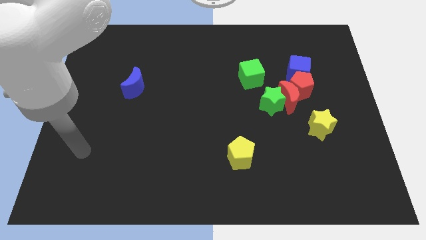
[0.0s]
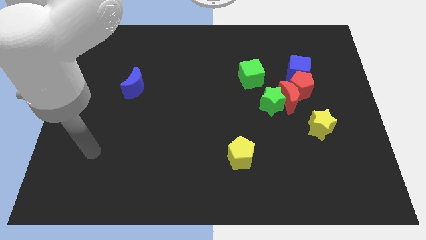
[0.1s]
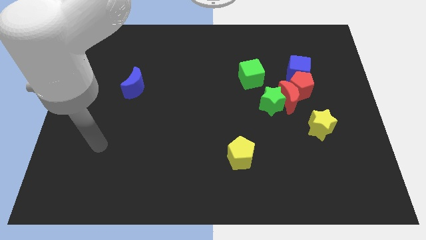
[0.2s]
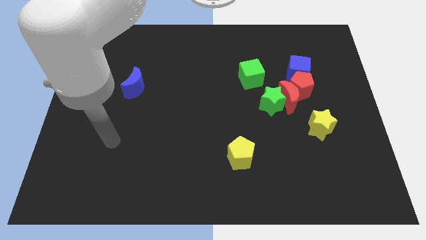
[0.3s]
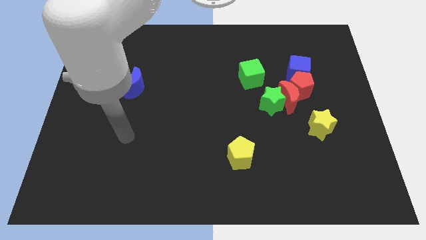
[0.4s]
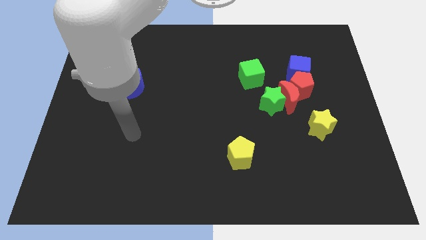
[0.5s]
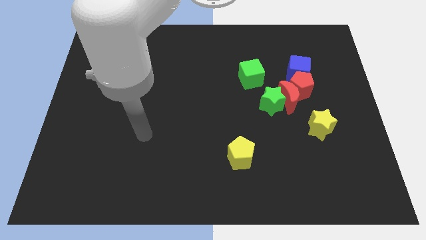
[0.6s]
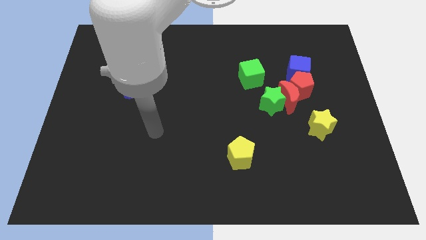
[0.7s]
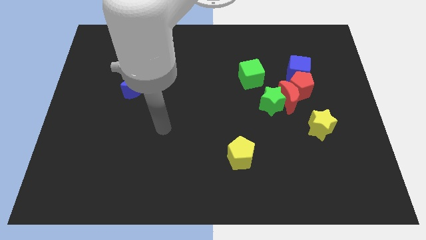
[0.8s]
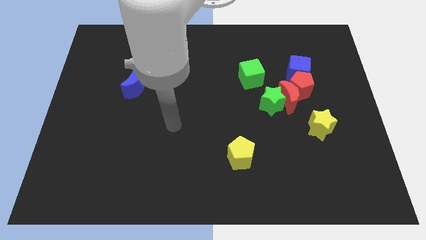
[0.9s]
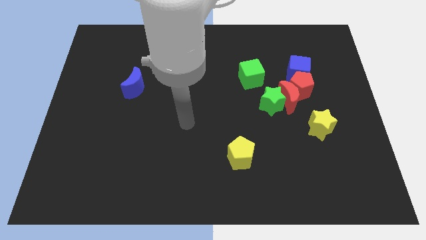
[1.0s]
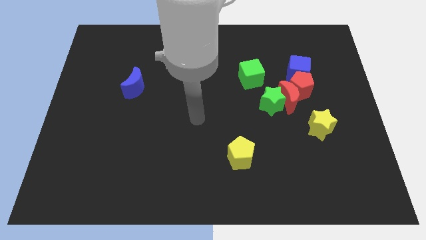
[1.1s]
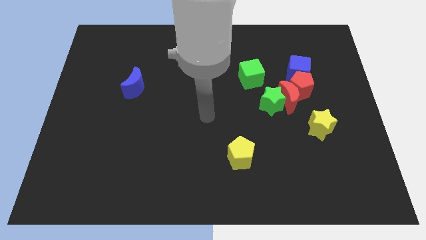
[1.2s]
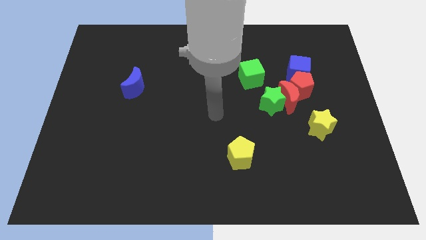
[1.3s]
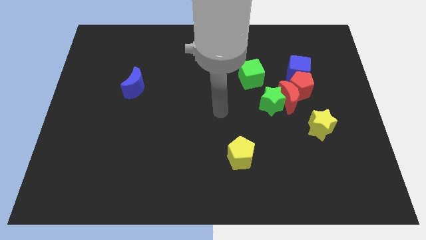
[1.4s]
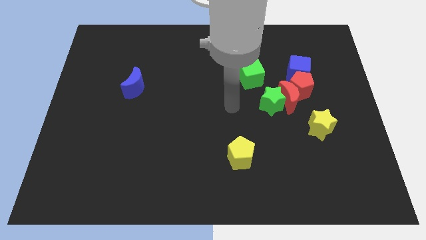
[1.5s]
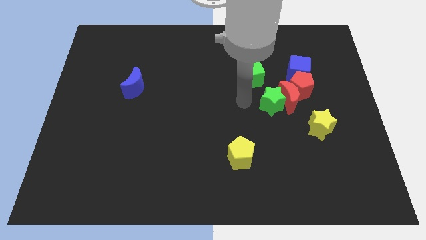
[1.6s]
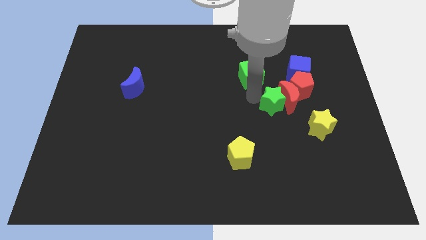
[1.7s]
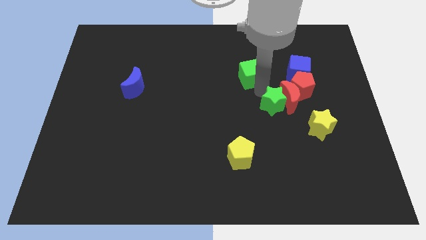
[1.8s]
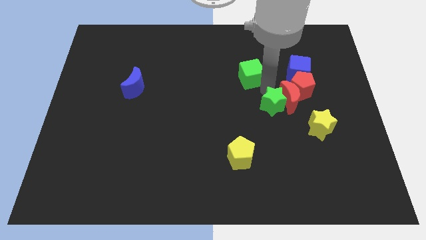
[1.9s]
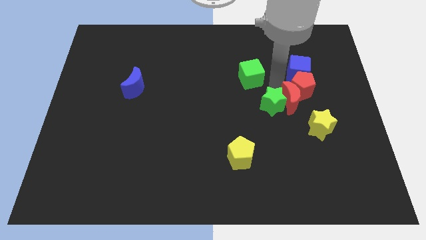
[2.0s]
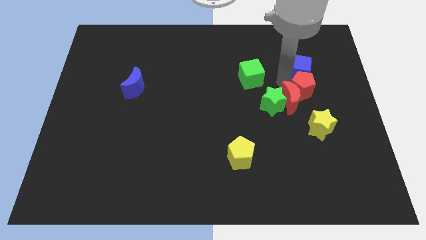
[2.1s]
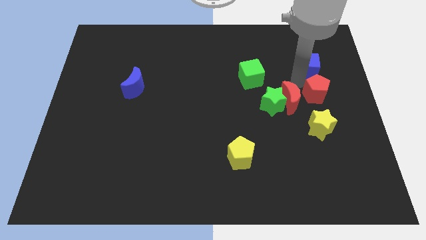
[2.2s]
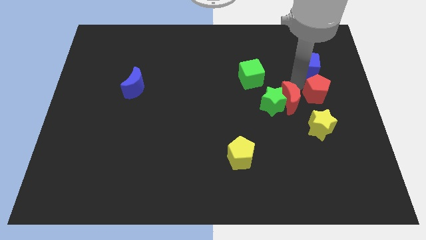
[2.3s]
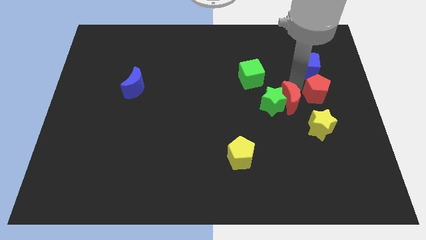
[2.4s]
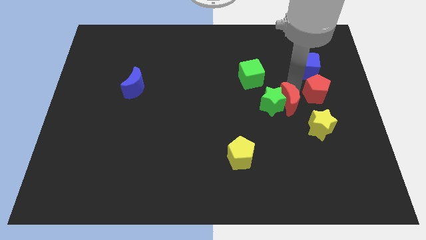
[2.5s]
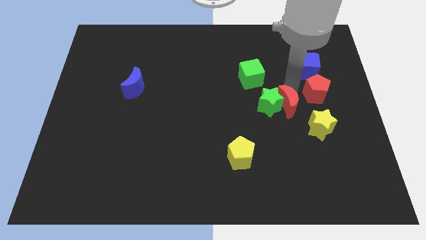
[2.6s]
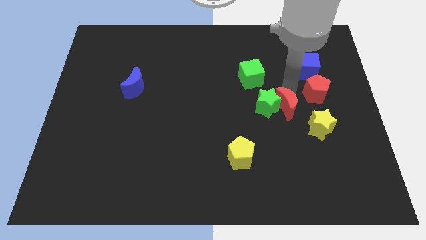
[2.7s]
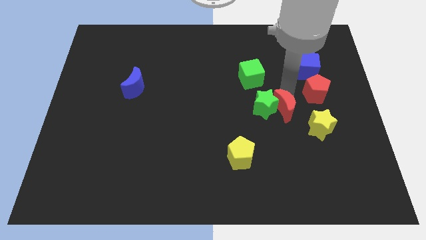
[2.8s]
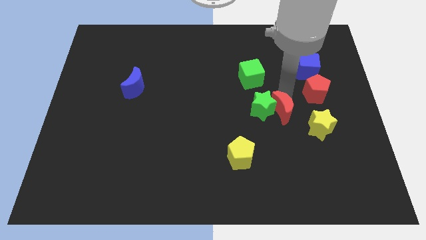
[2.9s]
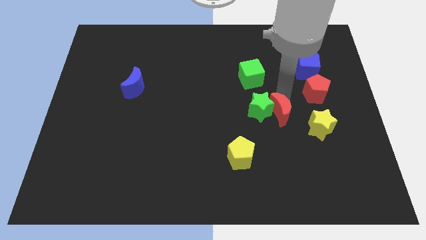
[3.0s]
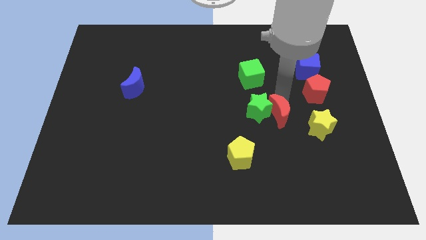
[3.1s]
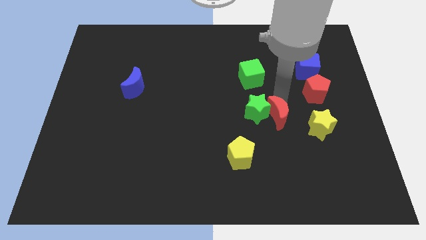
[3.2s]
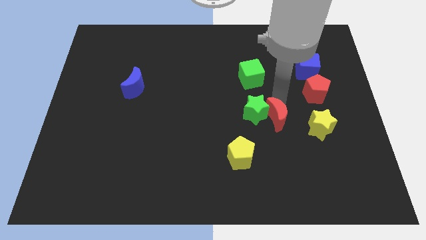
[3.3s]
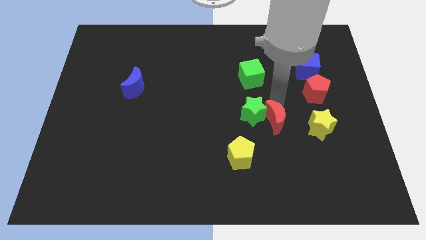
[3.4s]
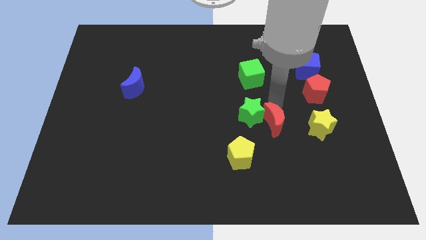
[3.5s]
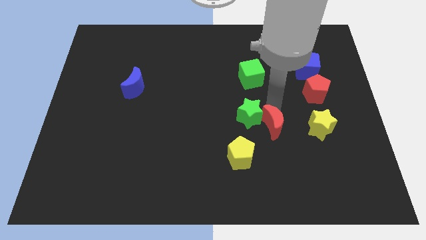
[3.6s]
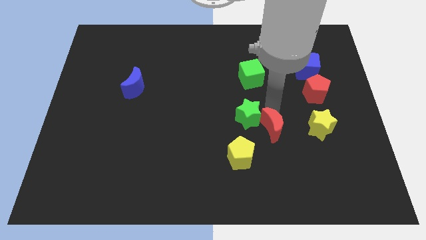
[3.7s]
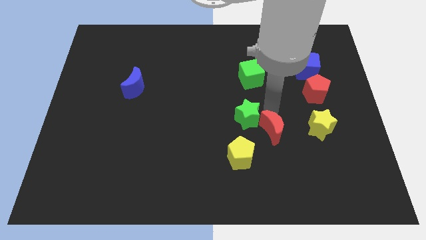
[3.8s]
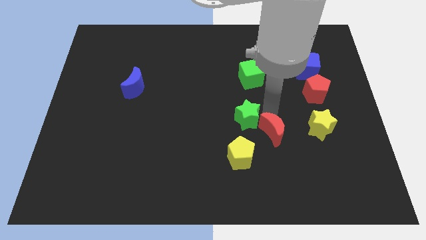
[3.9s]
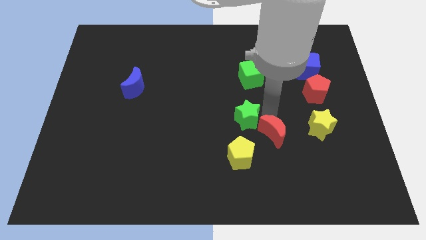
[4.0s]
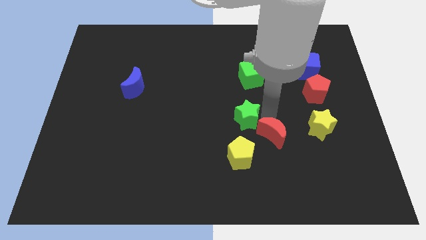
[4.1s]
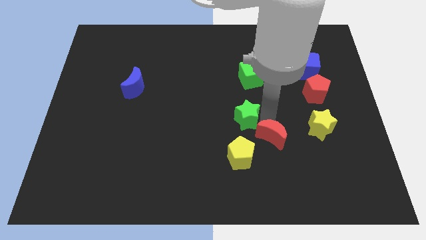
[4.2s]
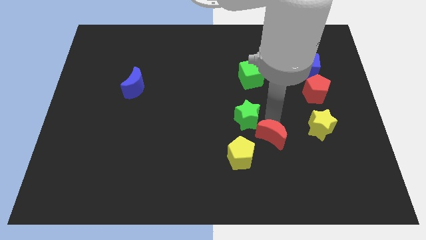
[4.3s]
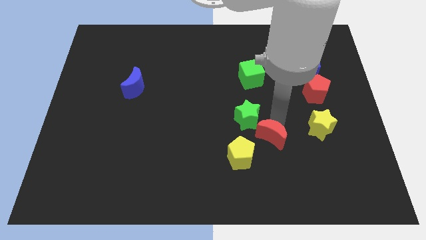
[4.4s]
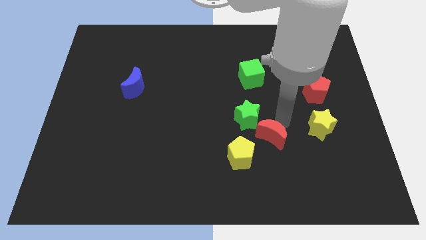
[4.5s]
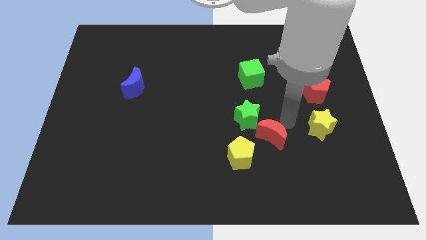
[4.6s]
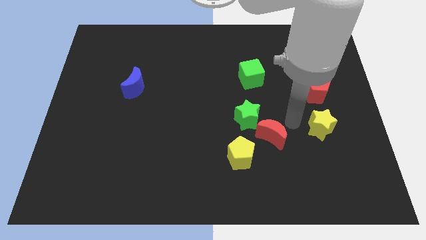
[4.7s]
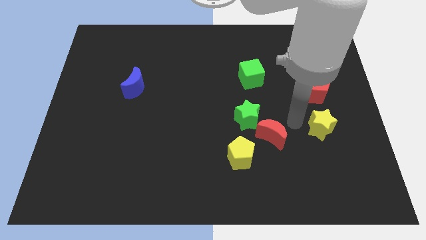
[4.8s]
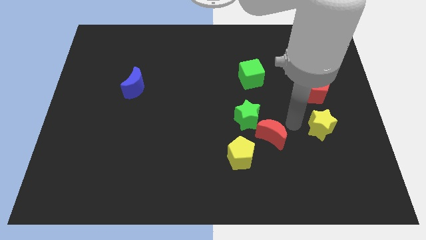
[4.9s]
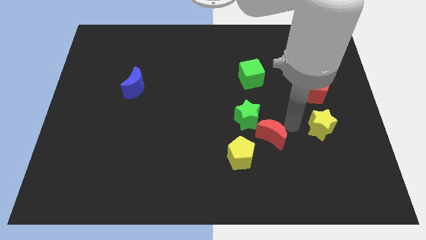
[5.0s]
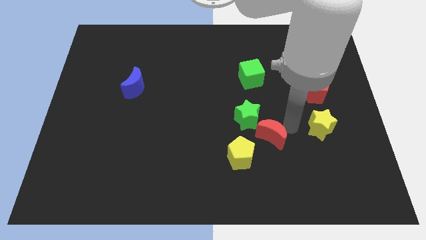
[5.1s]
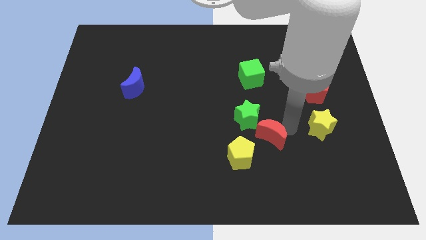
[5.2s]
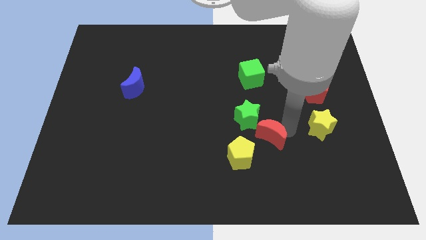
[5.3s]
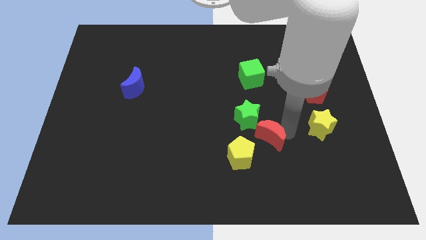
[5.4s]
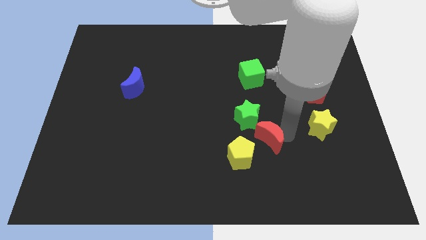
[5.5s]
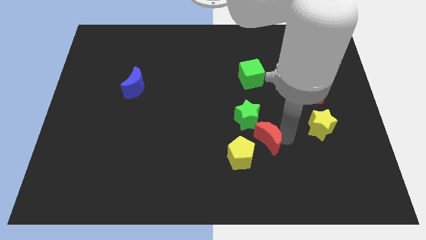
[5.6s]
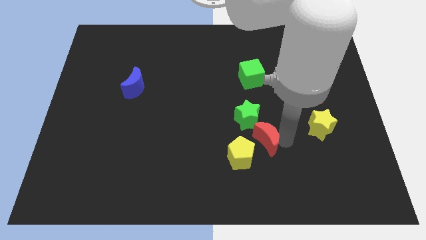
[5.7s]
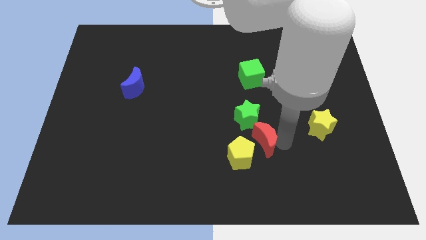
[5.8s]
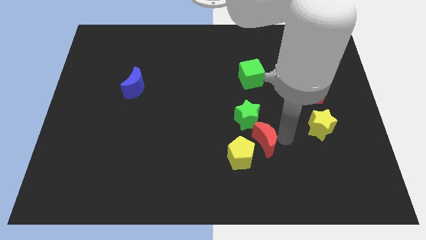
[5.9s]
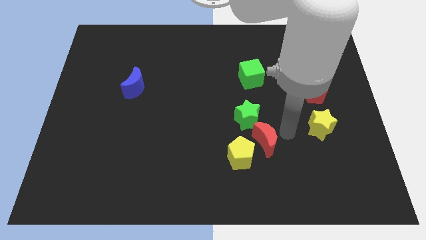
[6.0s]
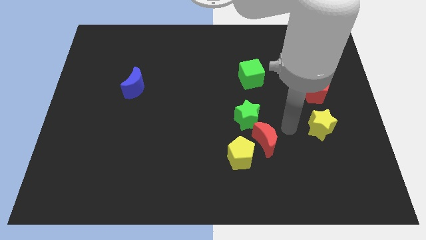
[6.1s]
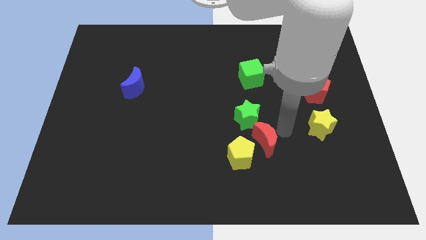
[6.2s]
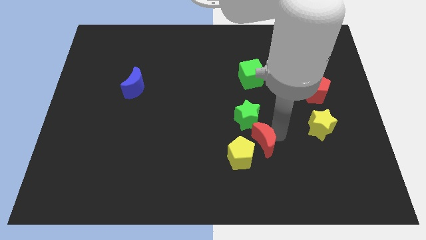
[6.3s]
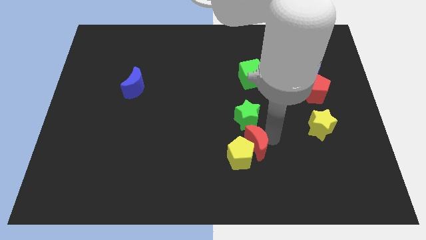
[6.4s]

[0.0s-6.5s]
slide the red moon towards the yellow pentagon

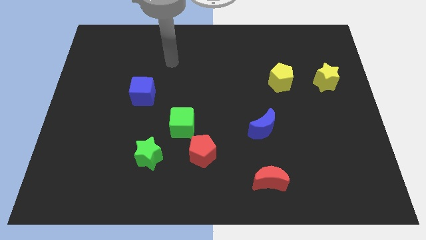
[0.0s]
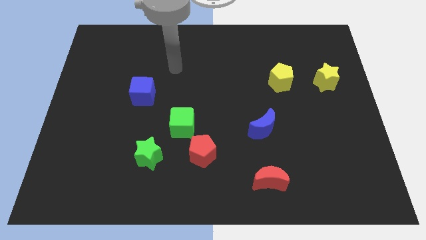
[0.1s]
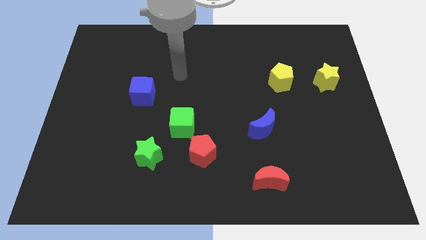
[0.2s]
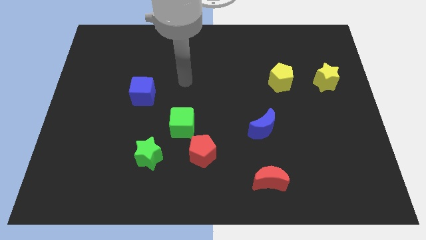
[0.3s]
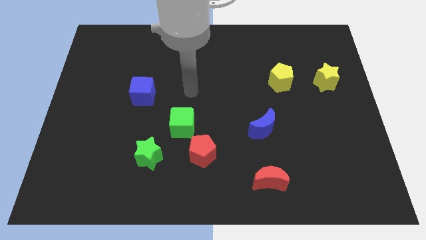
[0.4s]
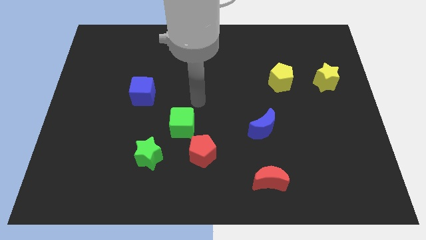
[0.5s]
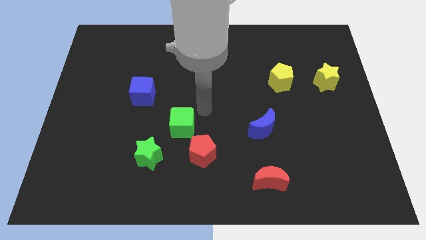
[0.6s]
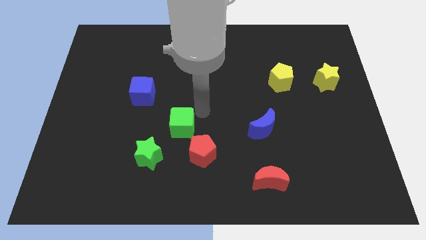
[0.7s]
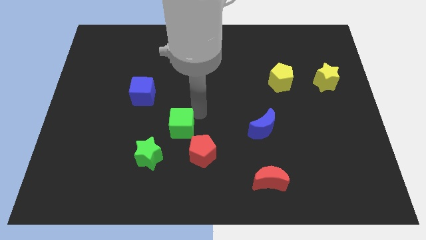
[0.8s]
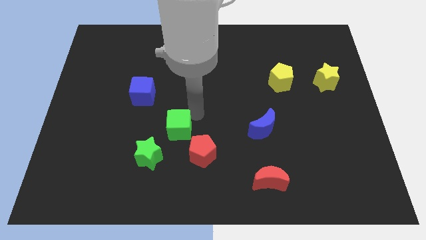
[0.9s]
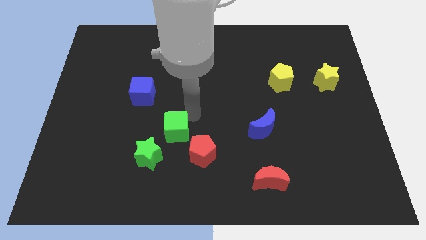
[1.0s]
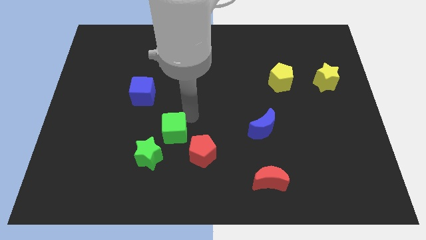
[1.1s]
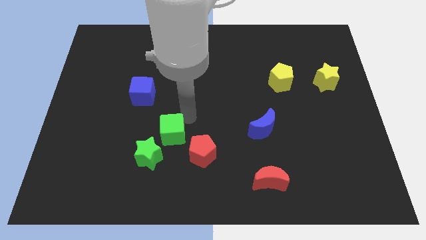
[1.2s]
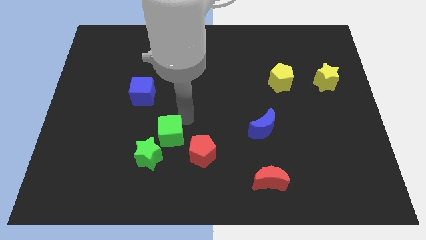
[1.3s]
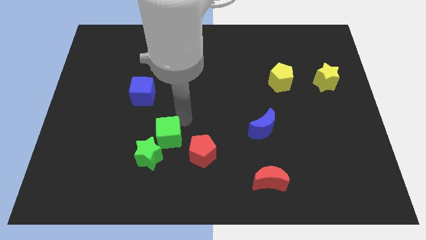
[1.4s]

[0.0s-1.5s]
move the green cube close to the green star
